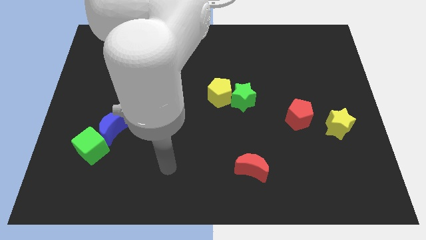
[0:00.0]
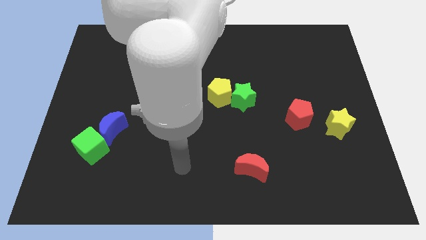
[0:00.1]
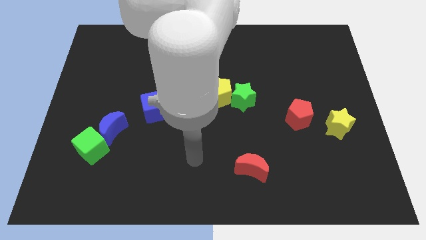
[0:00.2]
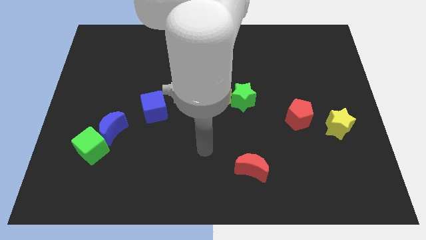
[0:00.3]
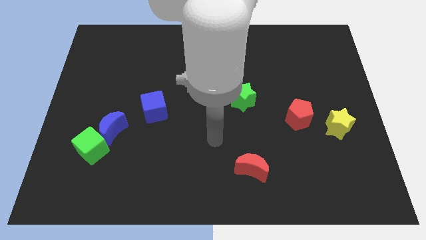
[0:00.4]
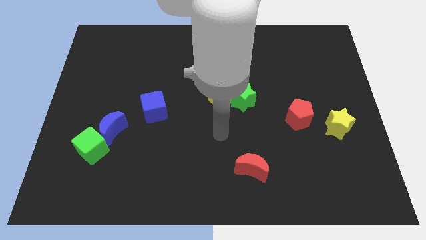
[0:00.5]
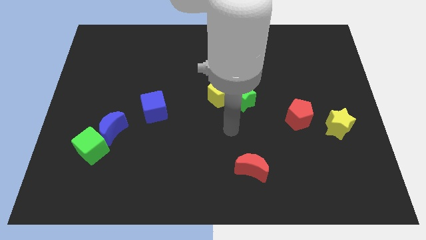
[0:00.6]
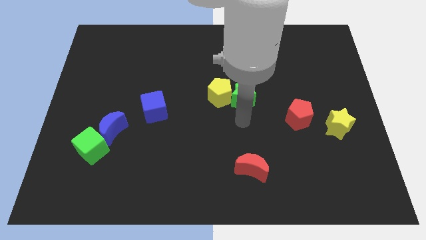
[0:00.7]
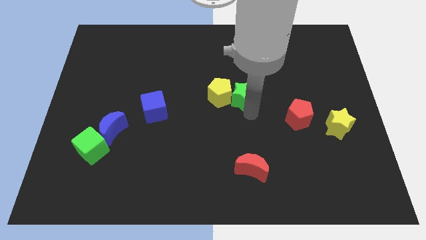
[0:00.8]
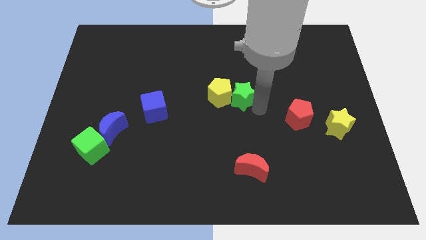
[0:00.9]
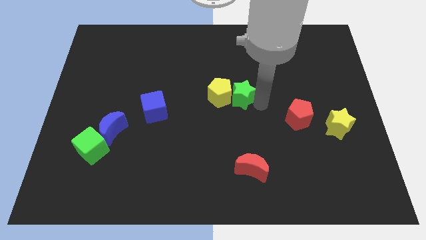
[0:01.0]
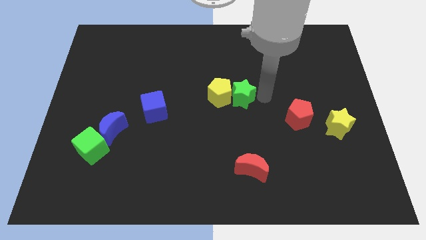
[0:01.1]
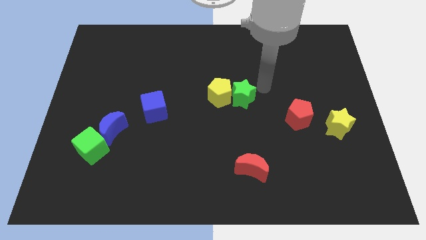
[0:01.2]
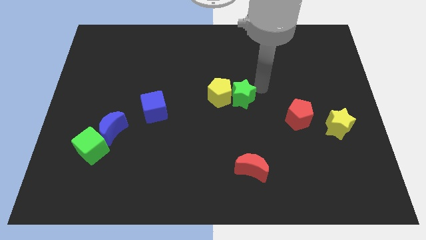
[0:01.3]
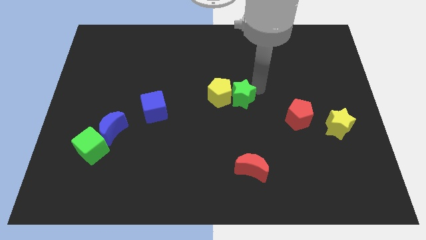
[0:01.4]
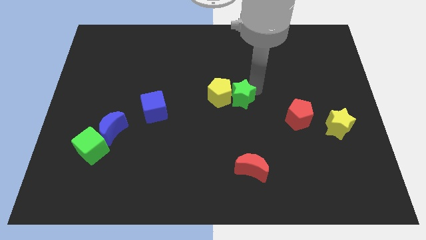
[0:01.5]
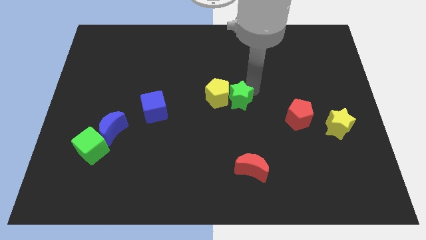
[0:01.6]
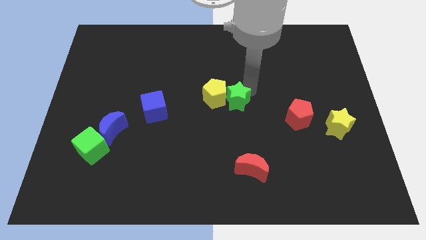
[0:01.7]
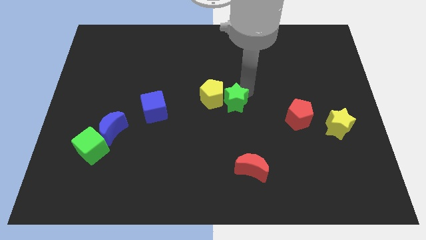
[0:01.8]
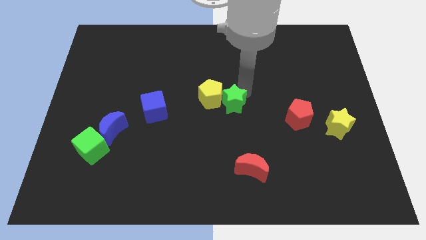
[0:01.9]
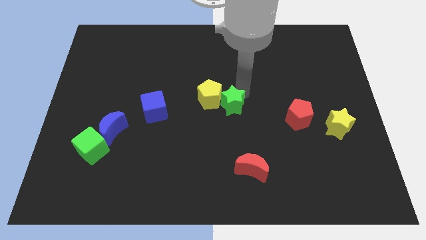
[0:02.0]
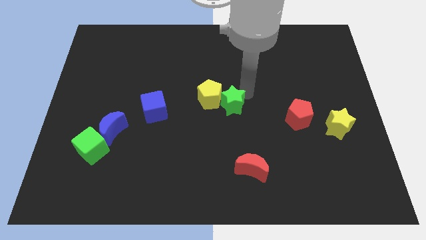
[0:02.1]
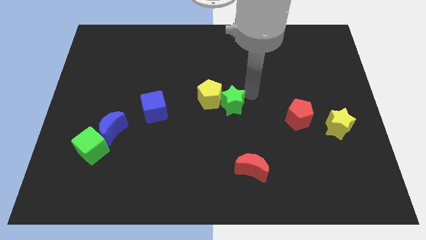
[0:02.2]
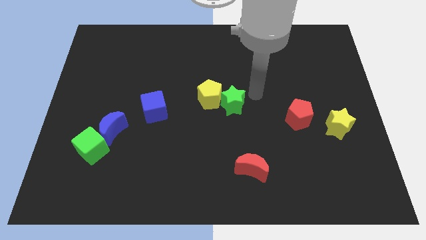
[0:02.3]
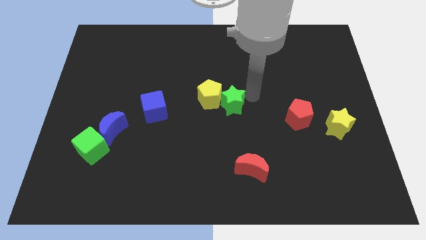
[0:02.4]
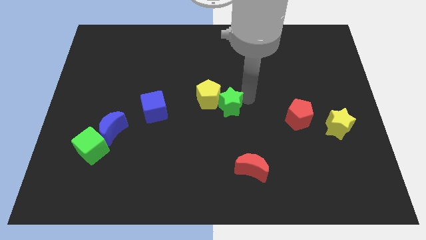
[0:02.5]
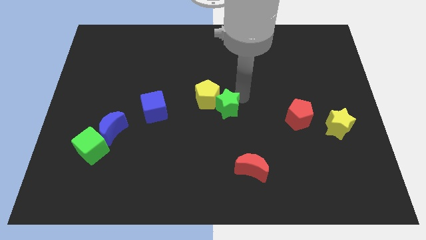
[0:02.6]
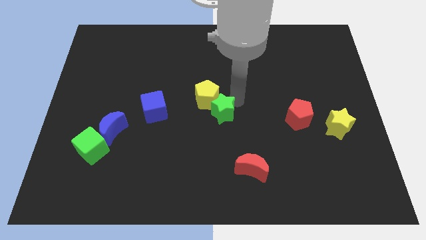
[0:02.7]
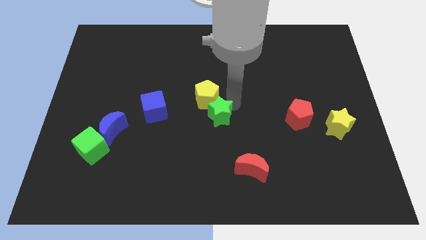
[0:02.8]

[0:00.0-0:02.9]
slightly push the green star down and then to the left

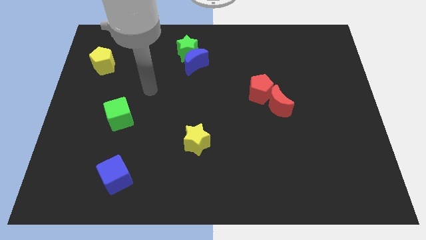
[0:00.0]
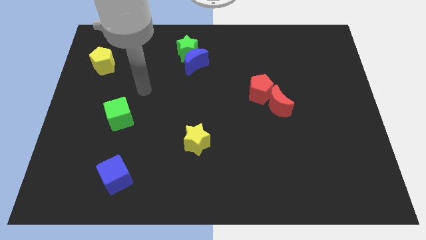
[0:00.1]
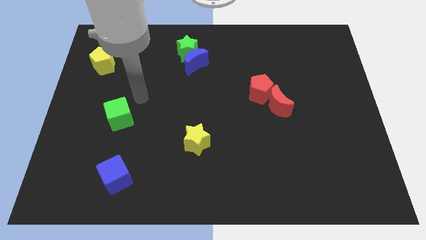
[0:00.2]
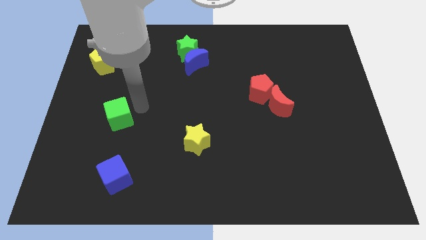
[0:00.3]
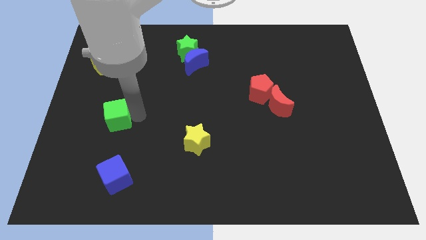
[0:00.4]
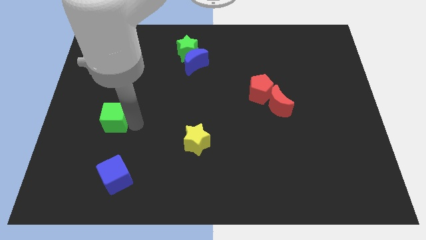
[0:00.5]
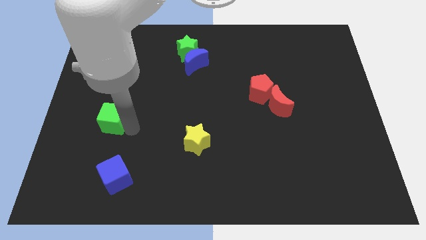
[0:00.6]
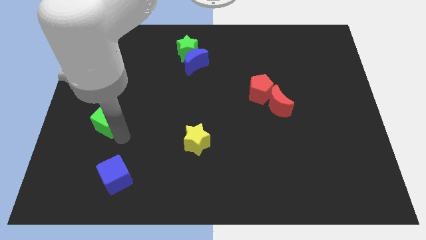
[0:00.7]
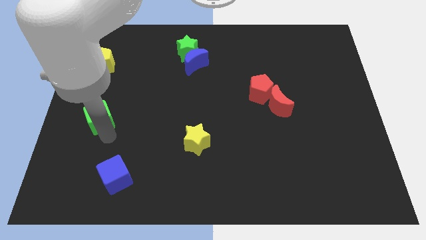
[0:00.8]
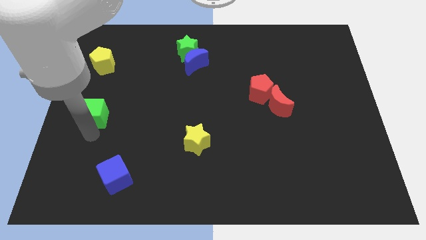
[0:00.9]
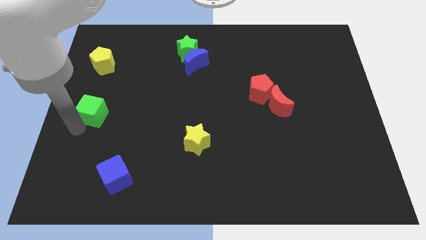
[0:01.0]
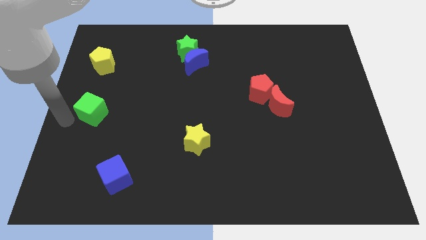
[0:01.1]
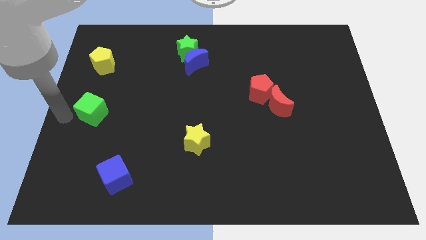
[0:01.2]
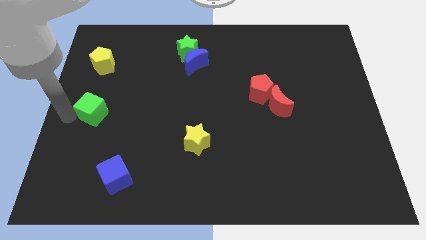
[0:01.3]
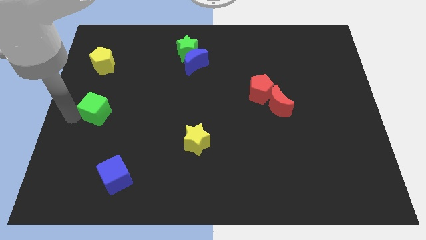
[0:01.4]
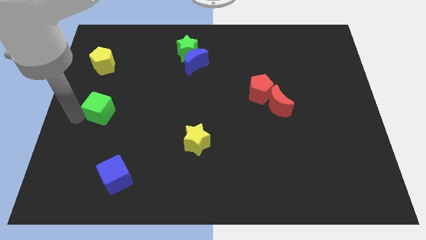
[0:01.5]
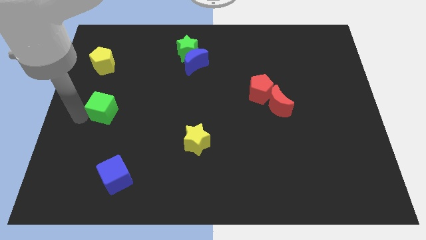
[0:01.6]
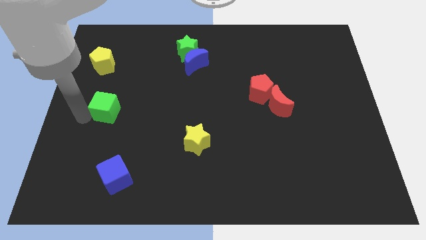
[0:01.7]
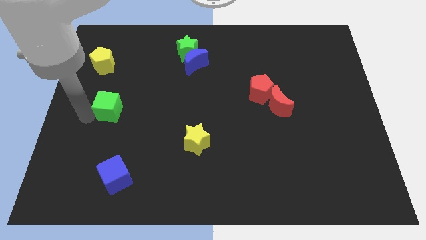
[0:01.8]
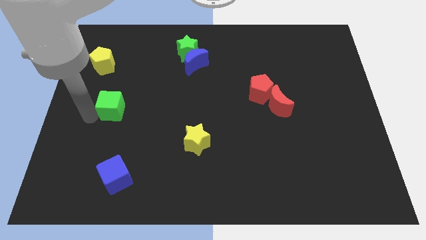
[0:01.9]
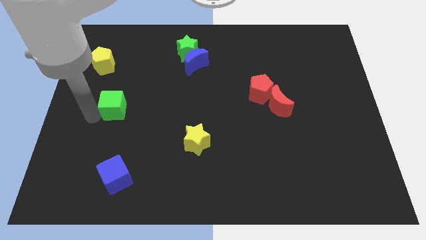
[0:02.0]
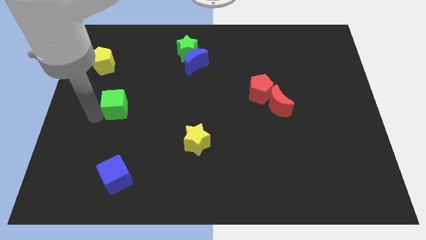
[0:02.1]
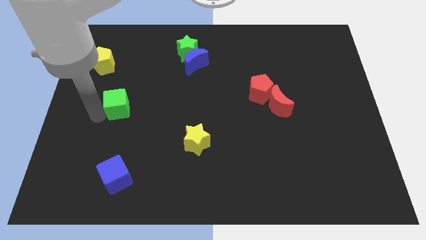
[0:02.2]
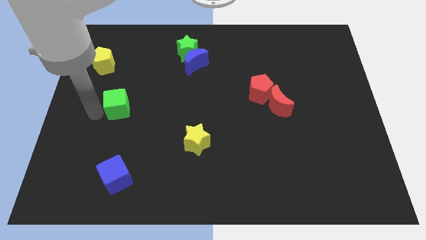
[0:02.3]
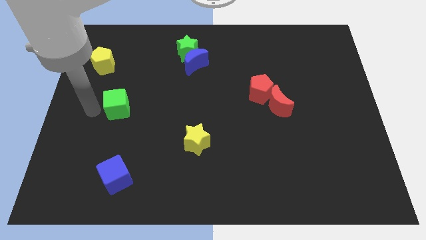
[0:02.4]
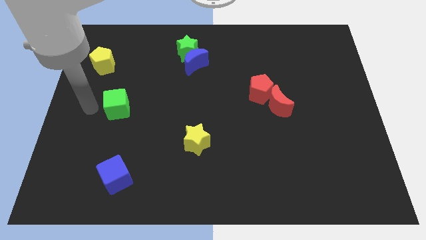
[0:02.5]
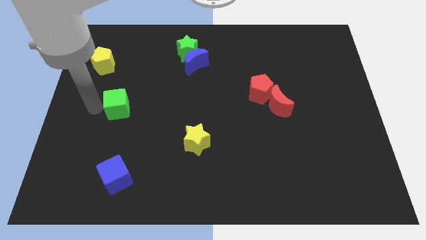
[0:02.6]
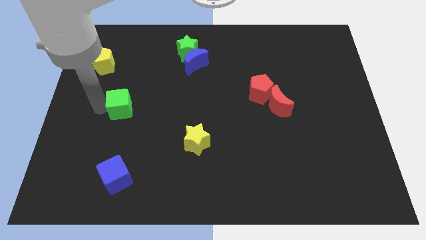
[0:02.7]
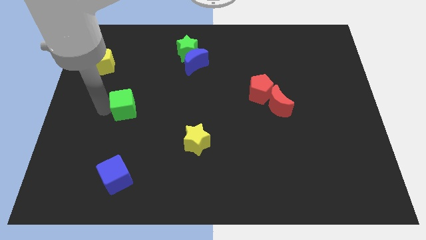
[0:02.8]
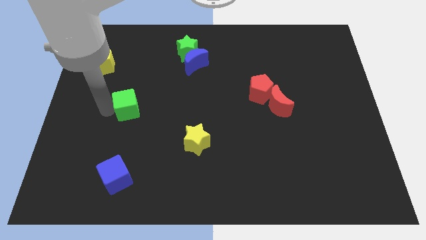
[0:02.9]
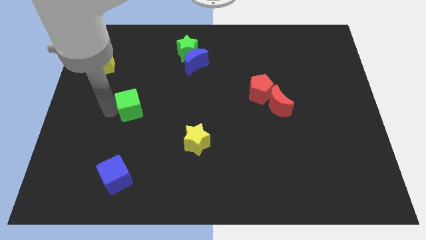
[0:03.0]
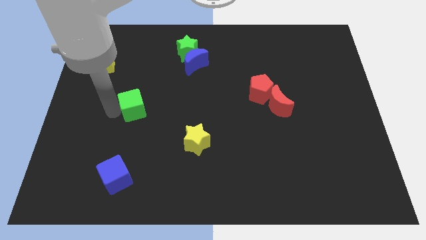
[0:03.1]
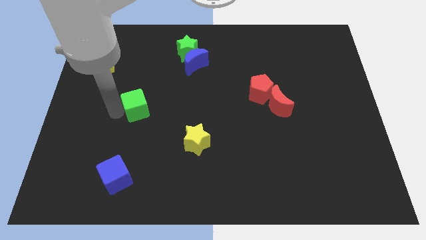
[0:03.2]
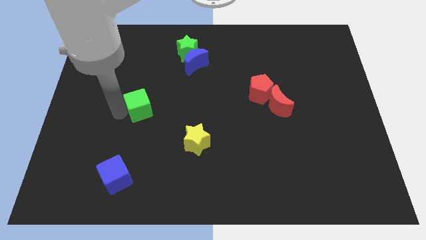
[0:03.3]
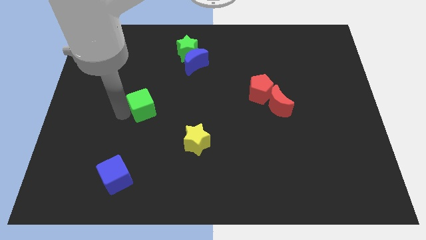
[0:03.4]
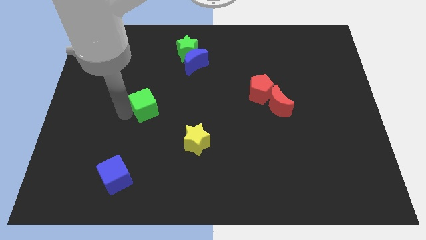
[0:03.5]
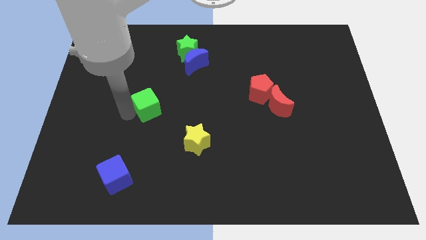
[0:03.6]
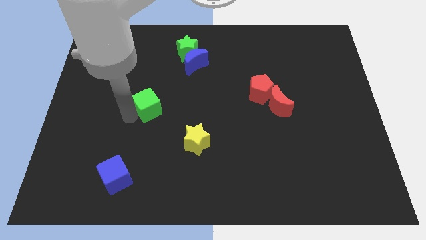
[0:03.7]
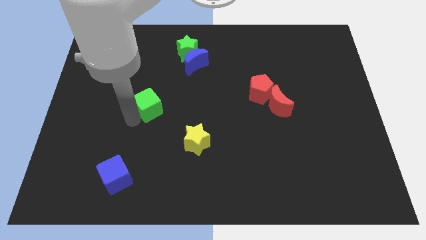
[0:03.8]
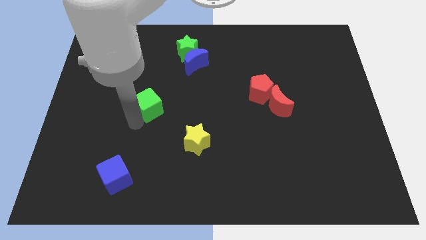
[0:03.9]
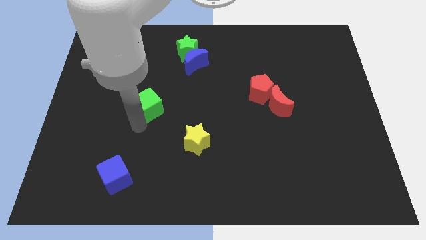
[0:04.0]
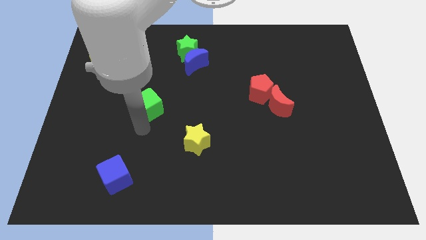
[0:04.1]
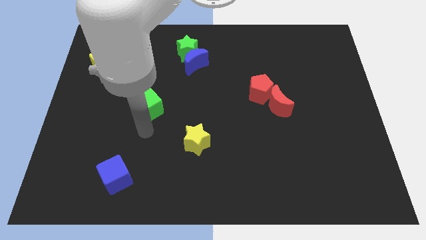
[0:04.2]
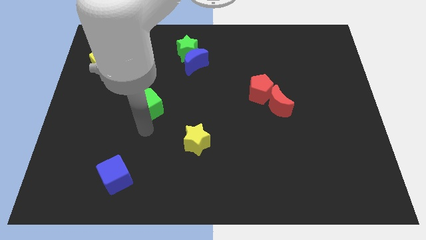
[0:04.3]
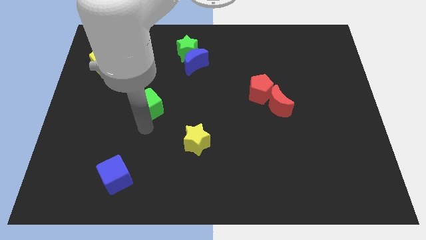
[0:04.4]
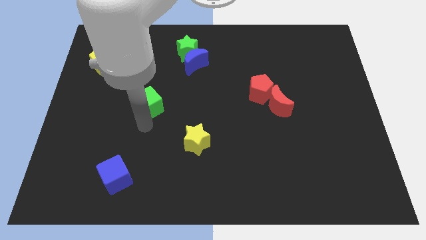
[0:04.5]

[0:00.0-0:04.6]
push the green cube up and to the right diagonally somewhat

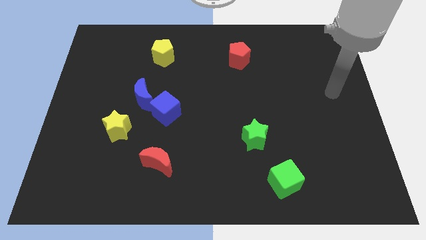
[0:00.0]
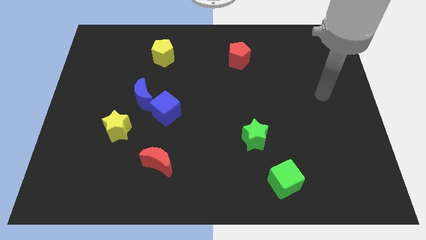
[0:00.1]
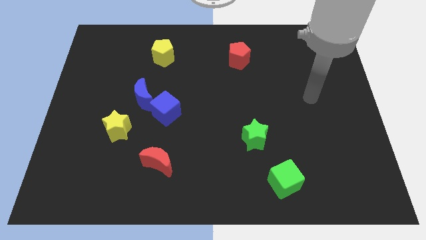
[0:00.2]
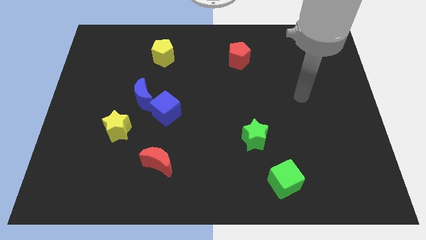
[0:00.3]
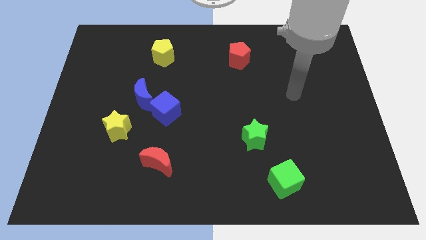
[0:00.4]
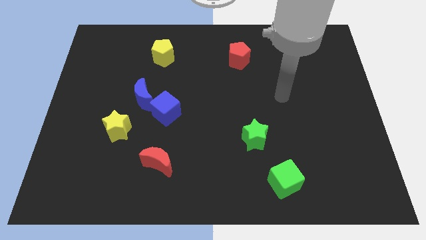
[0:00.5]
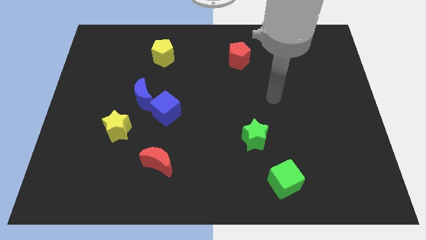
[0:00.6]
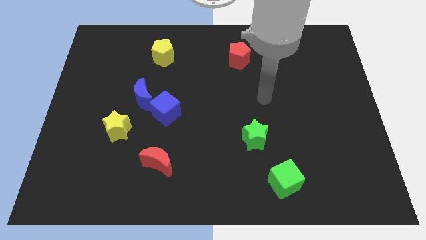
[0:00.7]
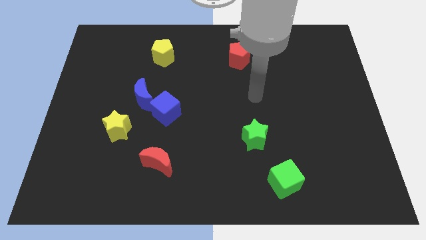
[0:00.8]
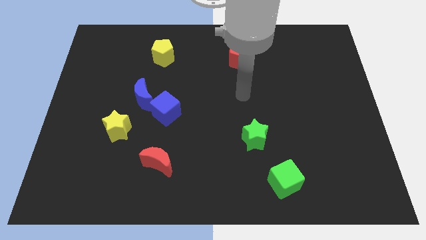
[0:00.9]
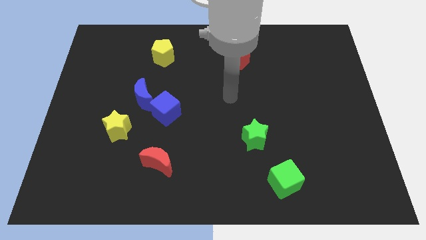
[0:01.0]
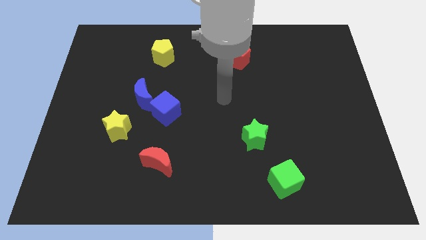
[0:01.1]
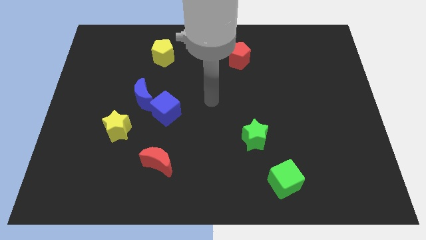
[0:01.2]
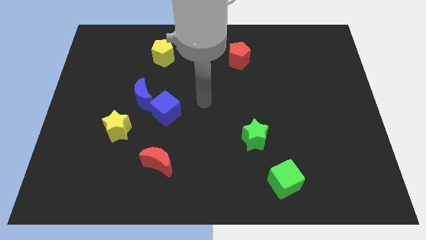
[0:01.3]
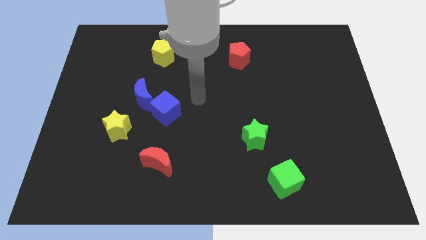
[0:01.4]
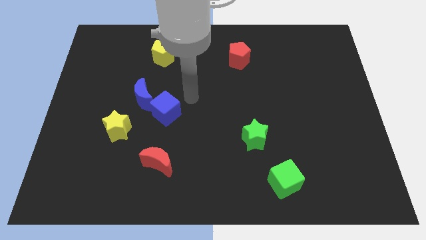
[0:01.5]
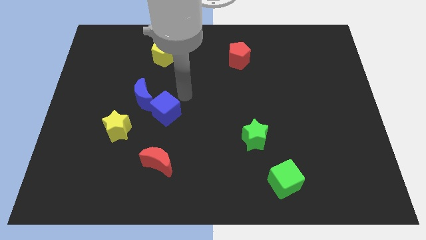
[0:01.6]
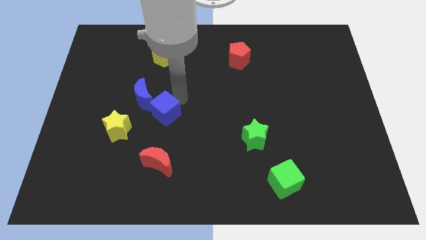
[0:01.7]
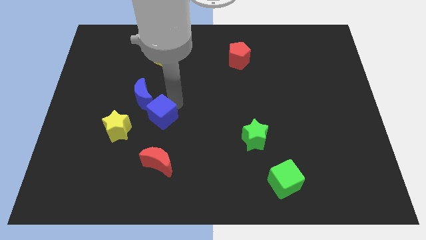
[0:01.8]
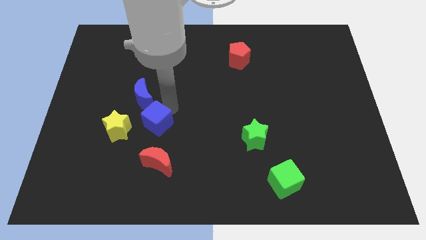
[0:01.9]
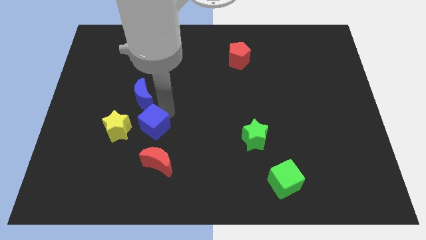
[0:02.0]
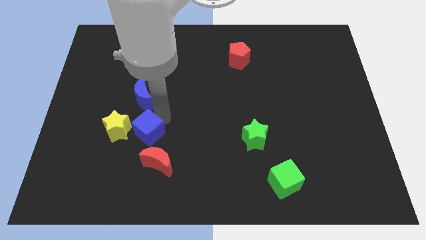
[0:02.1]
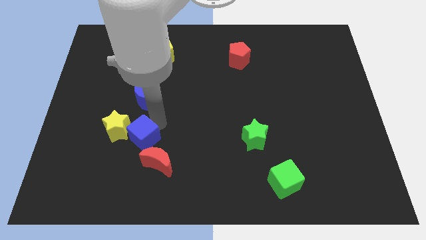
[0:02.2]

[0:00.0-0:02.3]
move the blue cube downwards and then to the left a little
